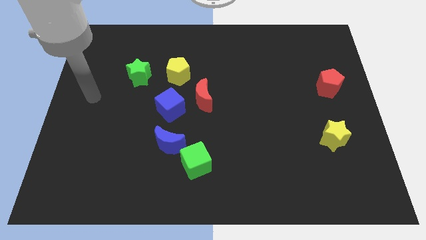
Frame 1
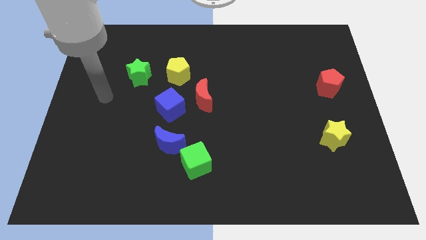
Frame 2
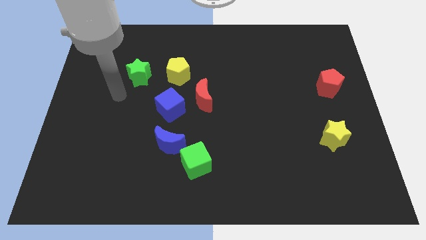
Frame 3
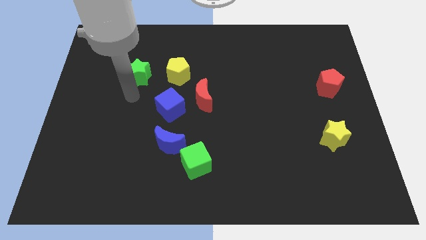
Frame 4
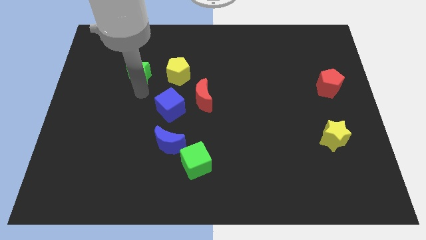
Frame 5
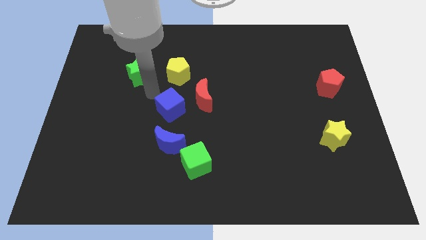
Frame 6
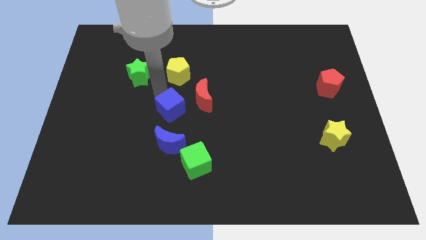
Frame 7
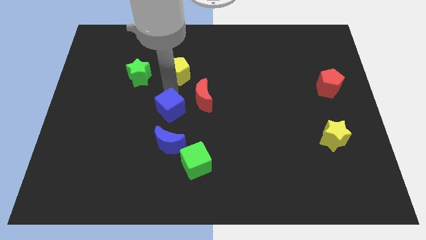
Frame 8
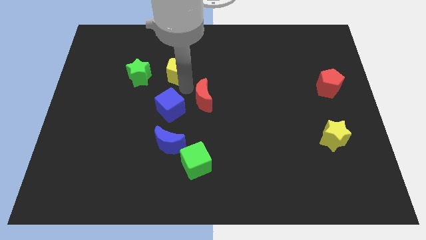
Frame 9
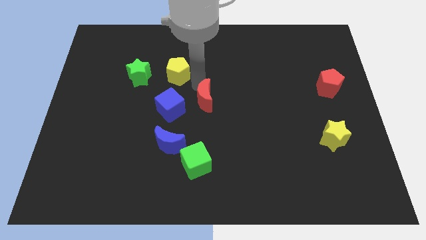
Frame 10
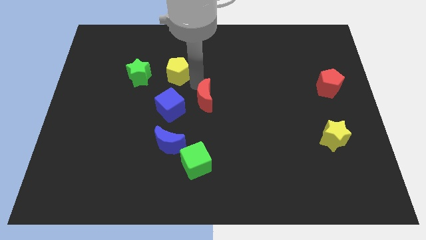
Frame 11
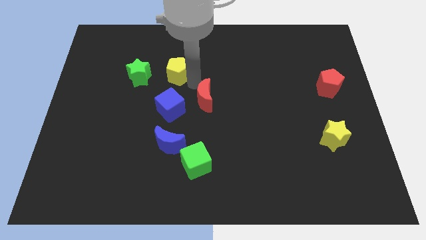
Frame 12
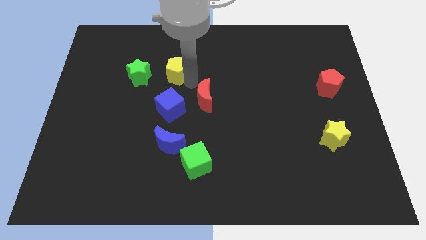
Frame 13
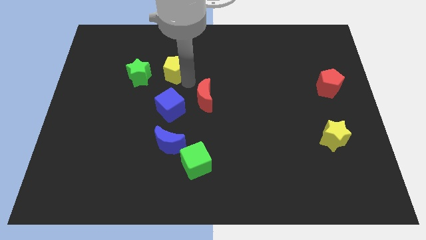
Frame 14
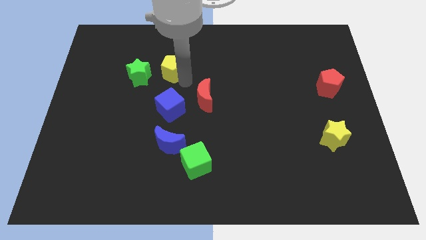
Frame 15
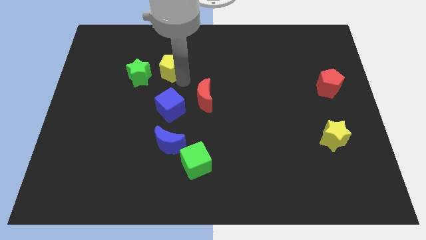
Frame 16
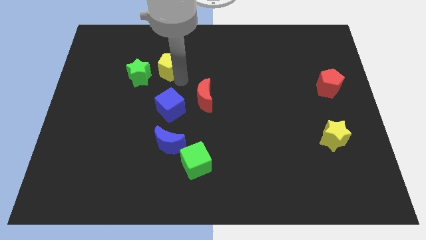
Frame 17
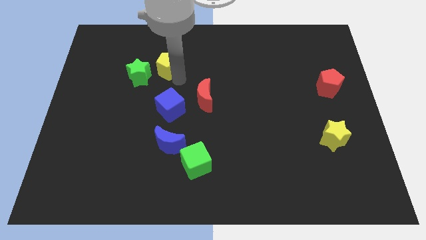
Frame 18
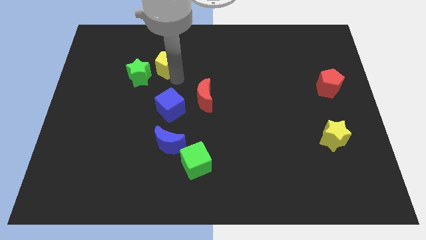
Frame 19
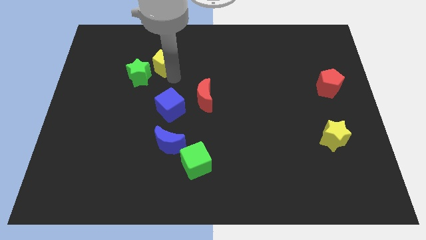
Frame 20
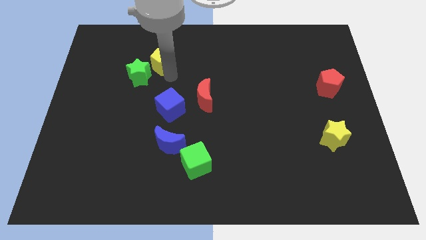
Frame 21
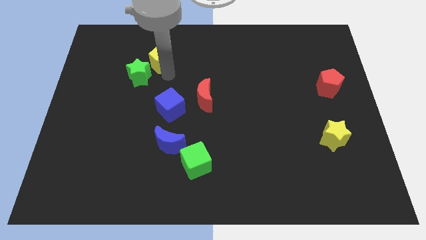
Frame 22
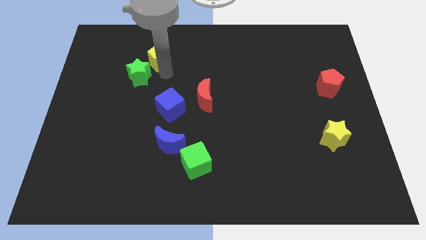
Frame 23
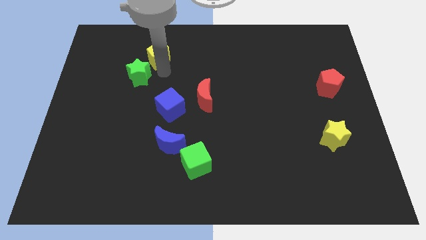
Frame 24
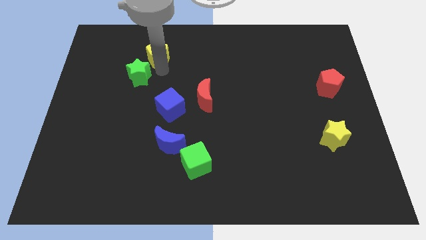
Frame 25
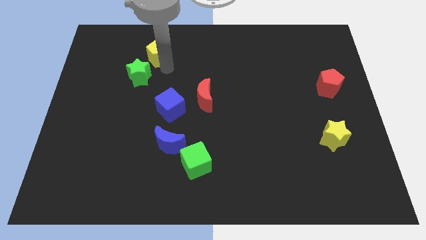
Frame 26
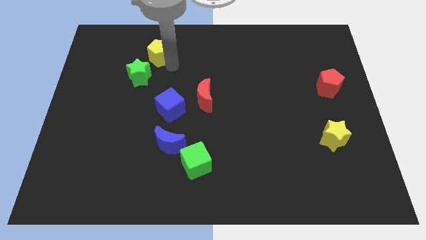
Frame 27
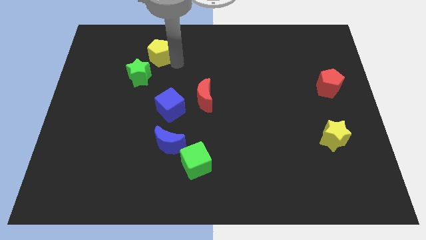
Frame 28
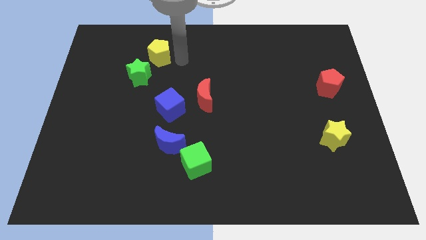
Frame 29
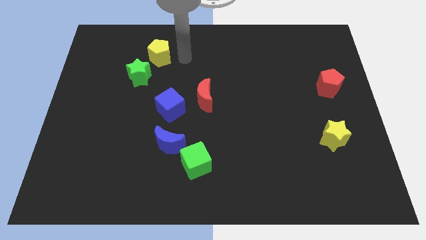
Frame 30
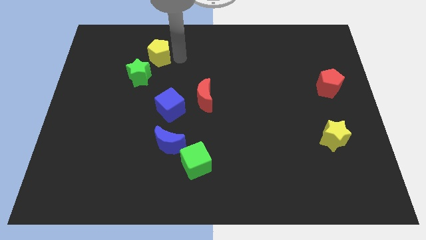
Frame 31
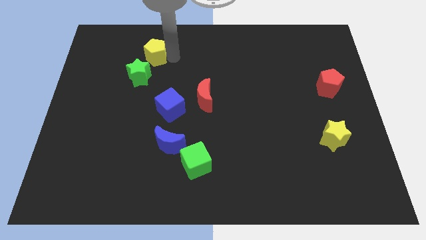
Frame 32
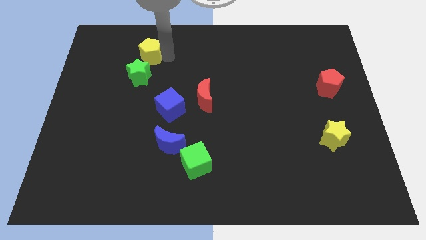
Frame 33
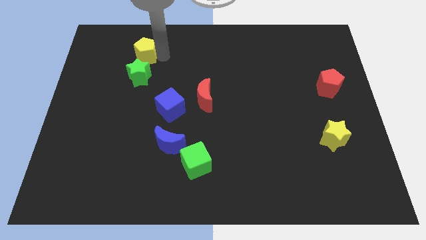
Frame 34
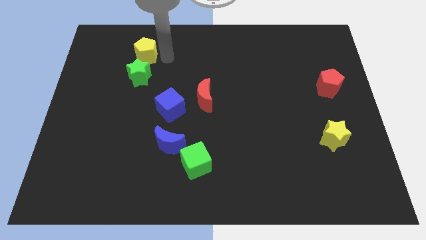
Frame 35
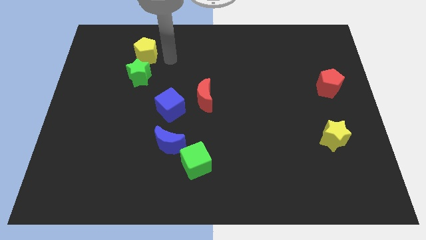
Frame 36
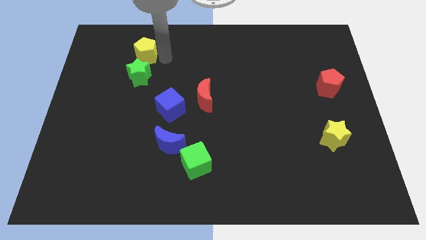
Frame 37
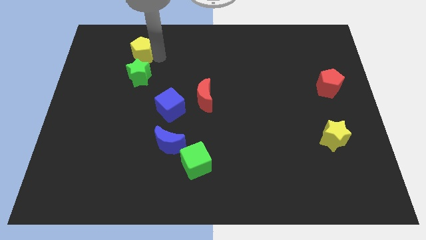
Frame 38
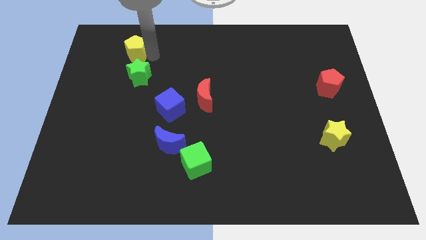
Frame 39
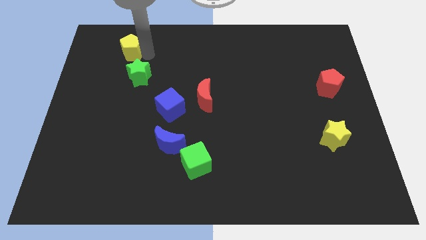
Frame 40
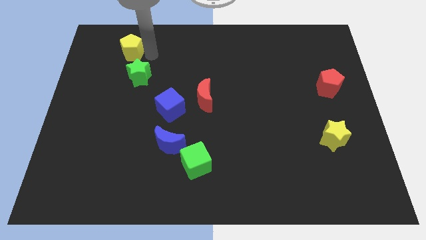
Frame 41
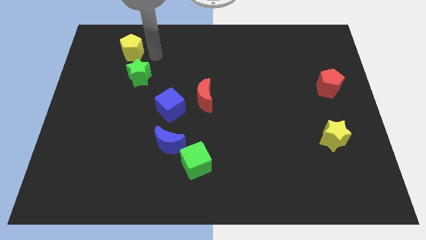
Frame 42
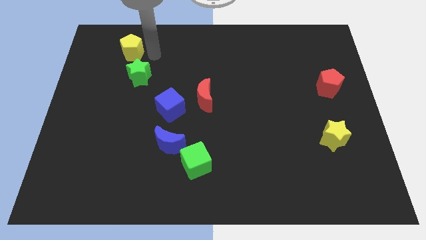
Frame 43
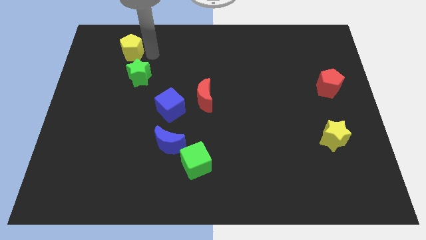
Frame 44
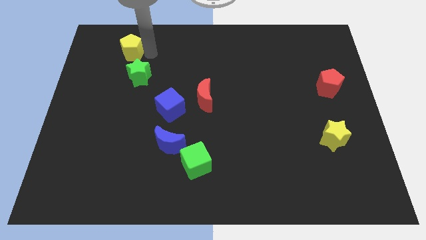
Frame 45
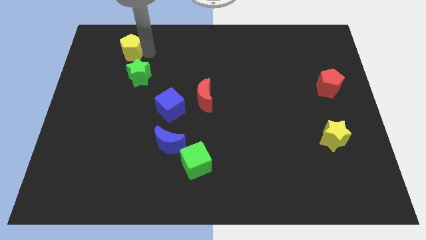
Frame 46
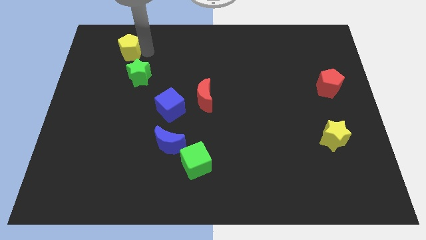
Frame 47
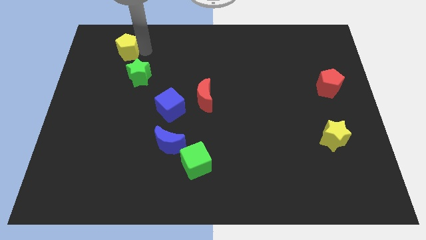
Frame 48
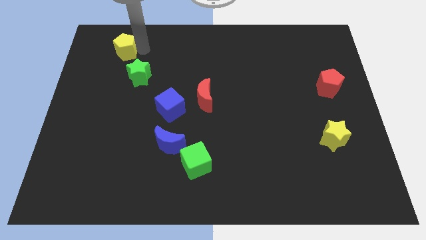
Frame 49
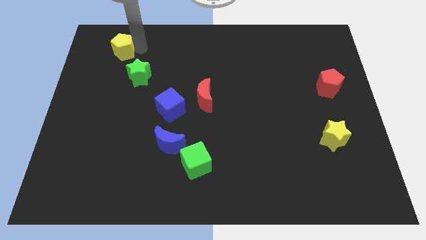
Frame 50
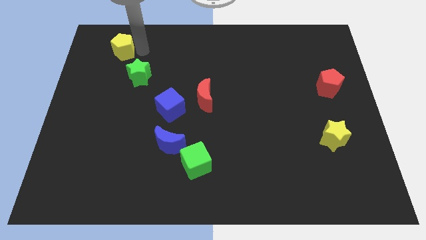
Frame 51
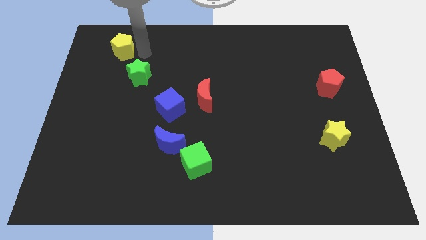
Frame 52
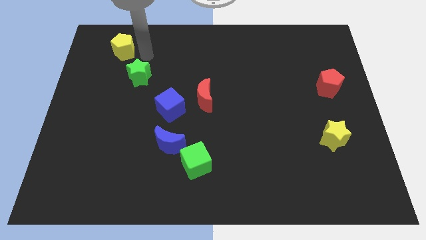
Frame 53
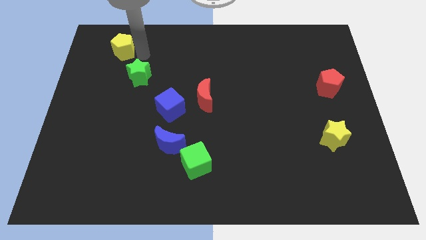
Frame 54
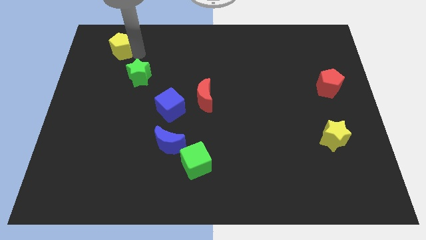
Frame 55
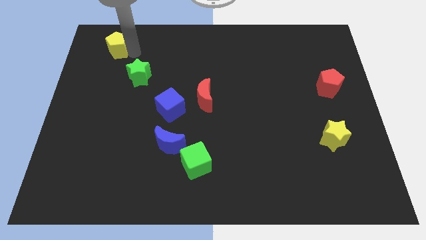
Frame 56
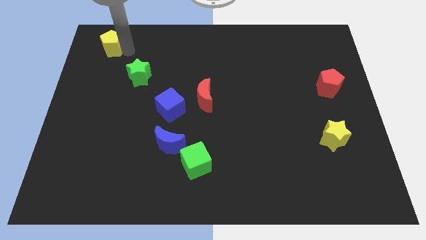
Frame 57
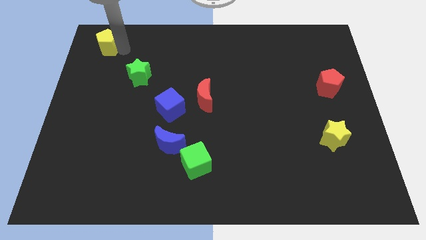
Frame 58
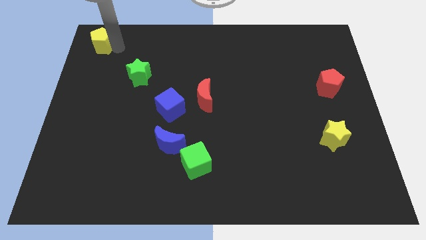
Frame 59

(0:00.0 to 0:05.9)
put the yellow pentagon to the top left corner

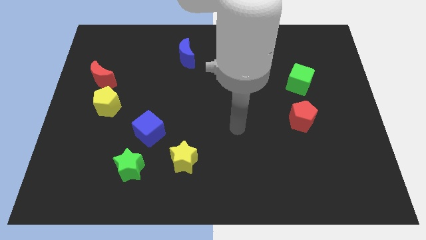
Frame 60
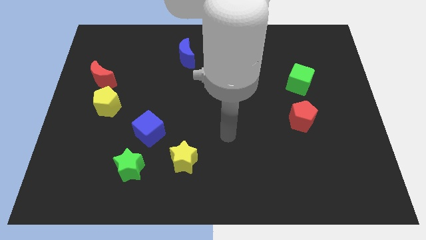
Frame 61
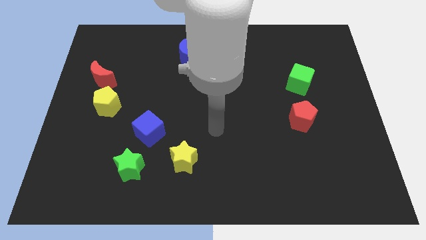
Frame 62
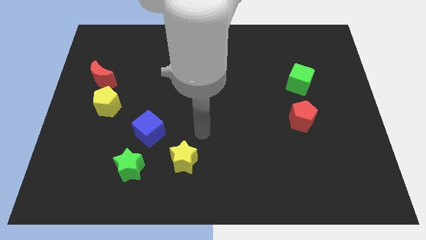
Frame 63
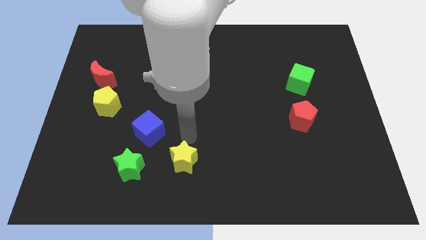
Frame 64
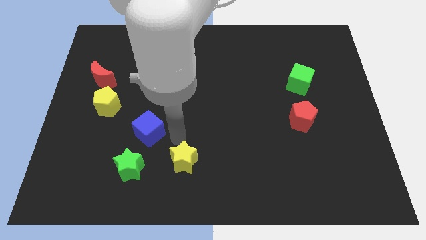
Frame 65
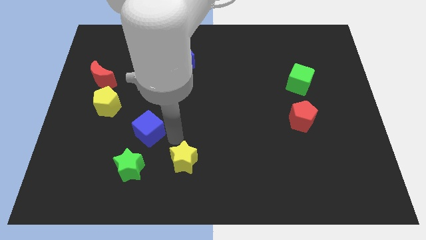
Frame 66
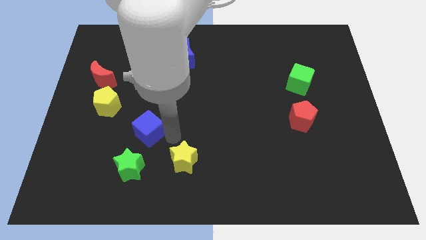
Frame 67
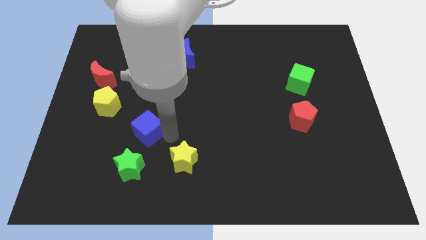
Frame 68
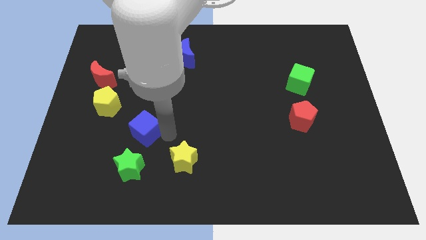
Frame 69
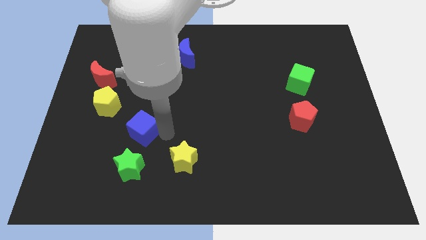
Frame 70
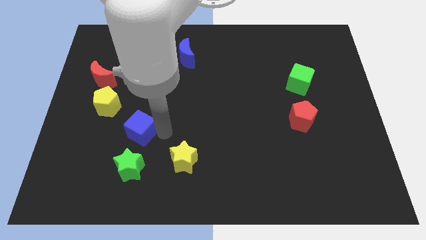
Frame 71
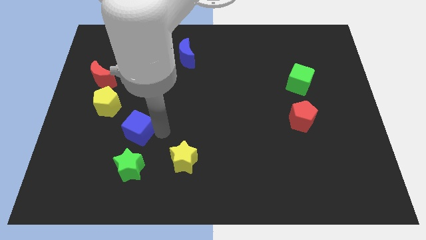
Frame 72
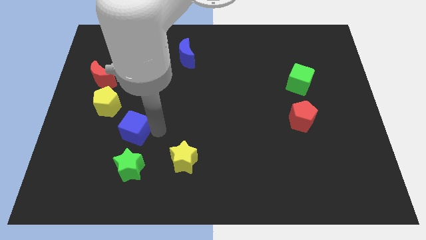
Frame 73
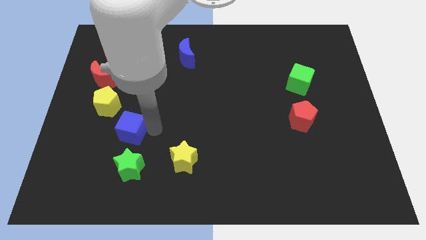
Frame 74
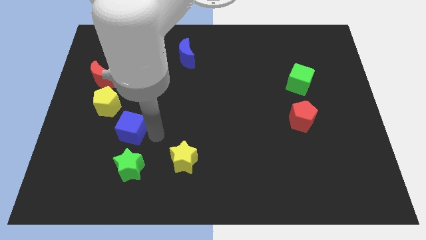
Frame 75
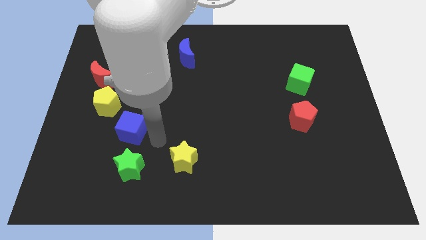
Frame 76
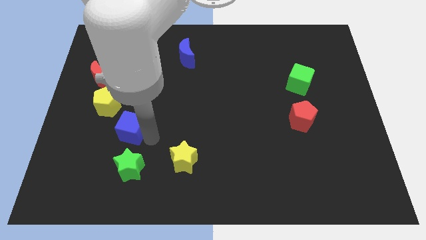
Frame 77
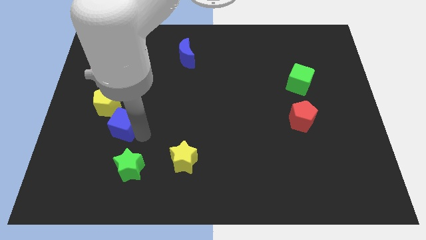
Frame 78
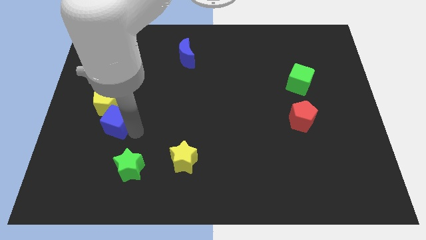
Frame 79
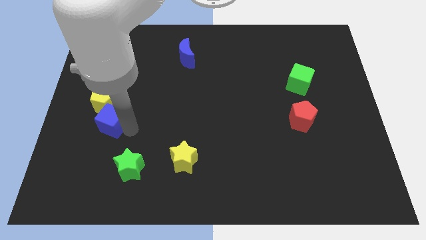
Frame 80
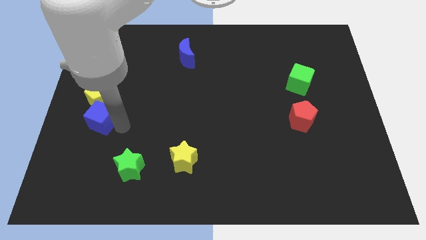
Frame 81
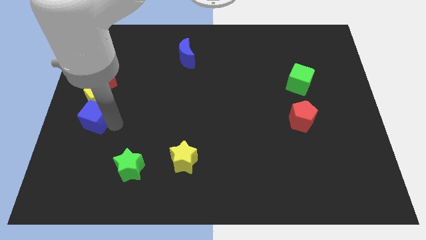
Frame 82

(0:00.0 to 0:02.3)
slide the blue cube to the center left
